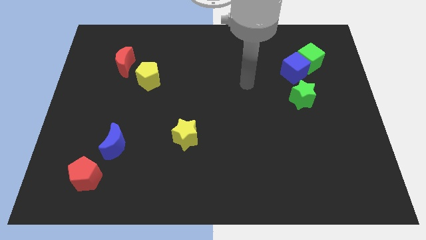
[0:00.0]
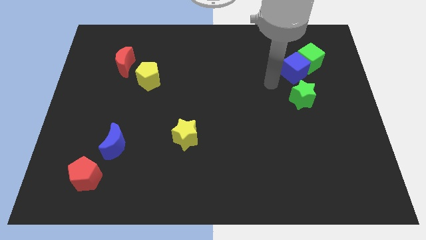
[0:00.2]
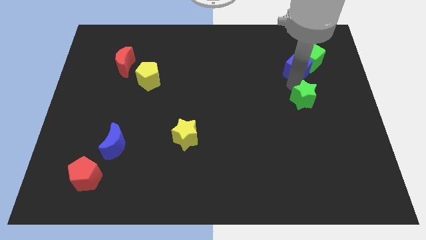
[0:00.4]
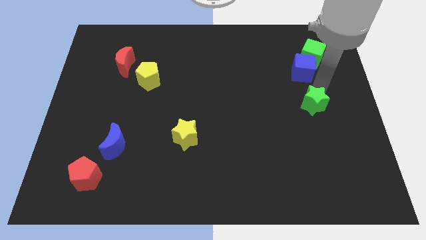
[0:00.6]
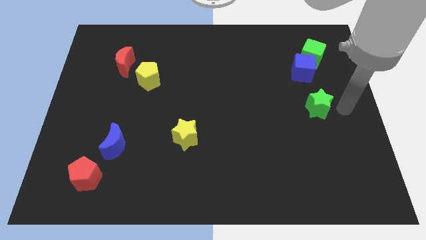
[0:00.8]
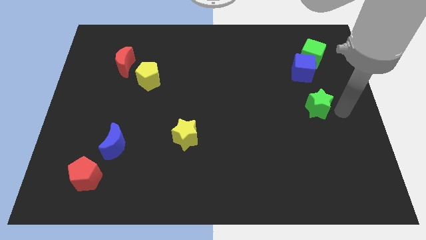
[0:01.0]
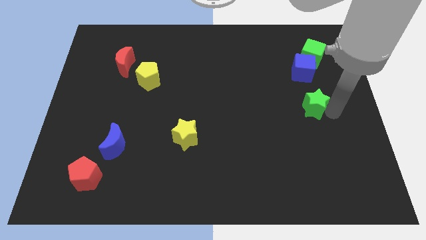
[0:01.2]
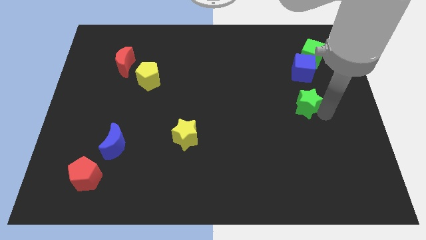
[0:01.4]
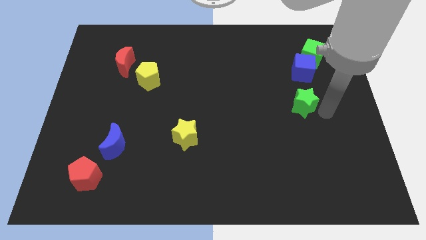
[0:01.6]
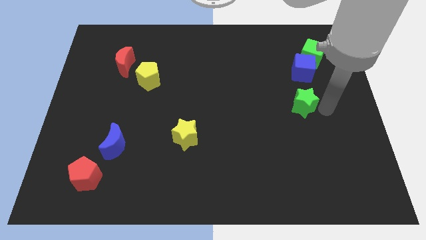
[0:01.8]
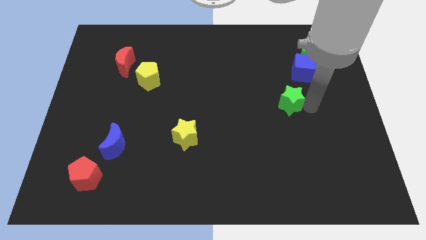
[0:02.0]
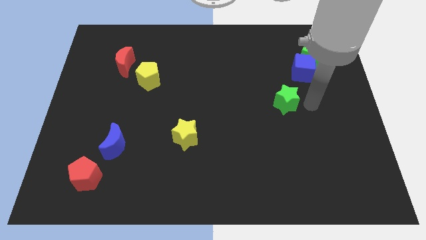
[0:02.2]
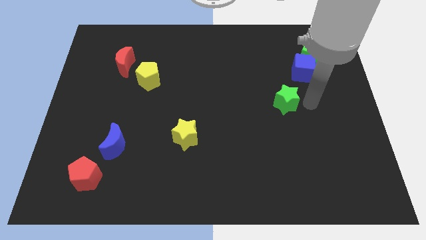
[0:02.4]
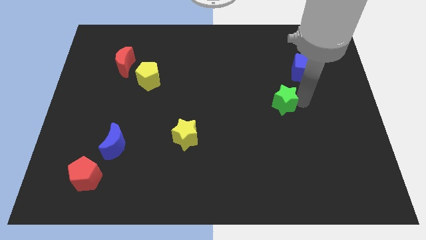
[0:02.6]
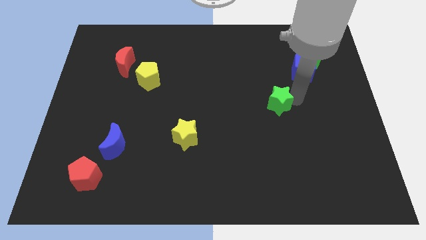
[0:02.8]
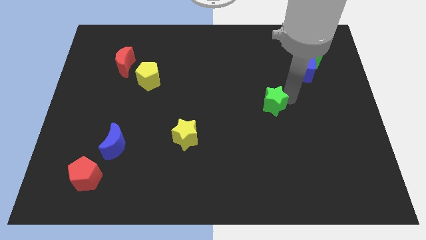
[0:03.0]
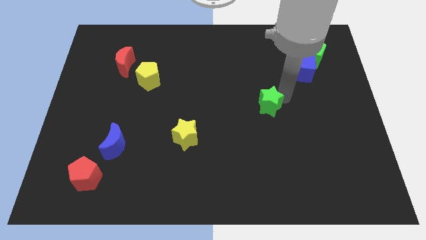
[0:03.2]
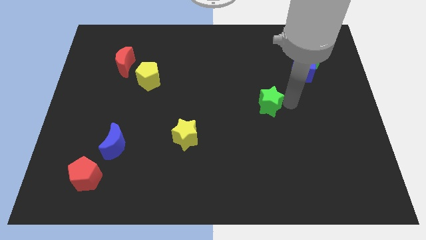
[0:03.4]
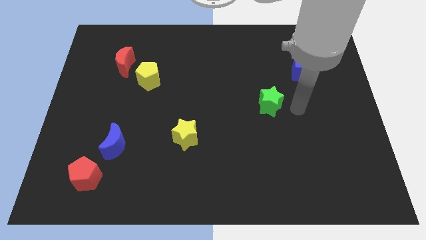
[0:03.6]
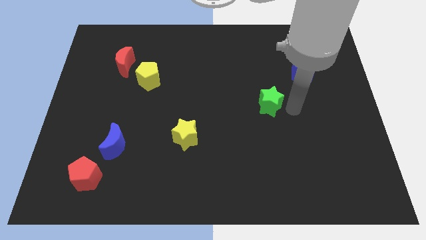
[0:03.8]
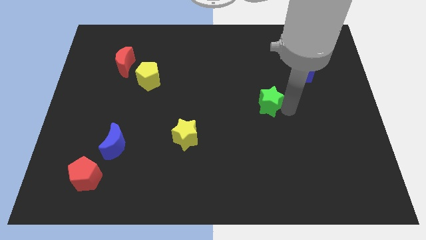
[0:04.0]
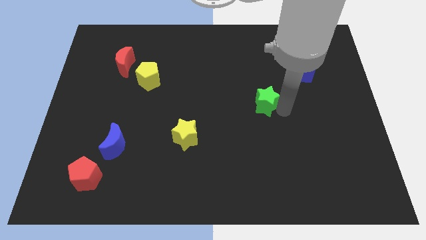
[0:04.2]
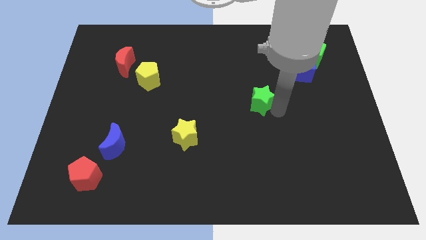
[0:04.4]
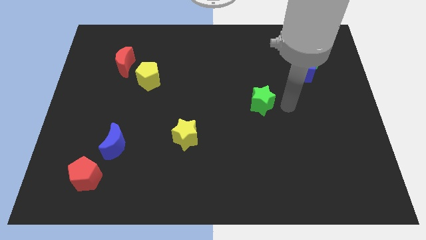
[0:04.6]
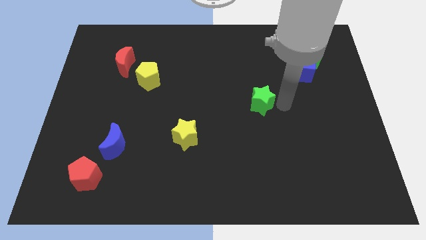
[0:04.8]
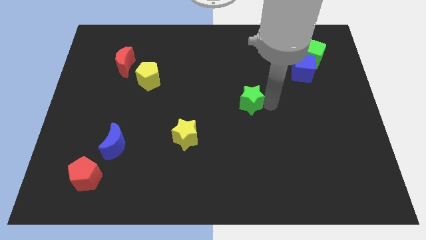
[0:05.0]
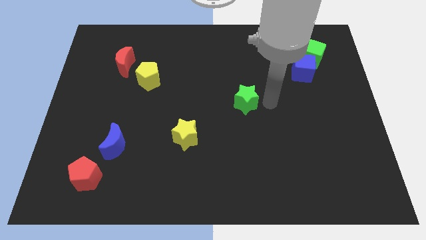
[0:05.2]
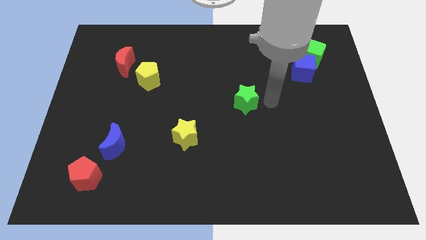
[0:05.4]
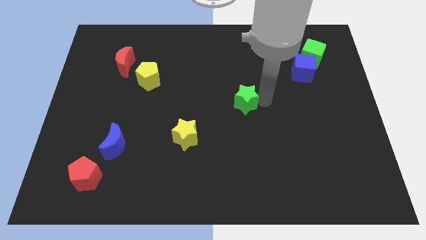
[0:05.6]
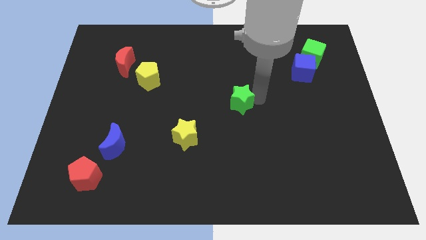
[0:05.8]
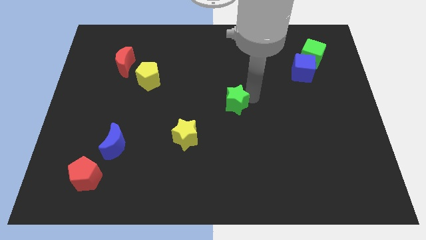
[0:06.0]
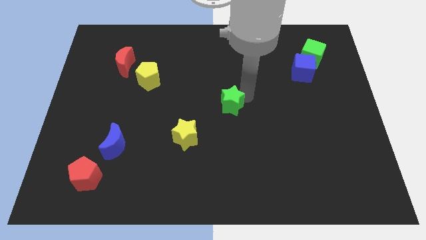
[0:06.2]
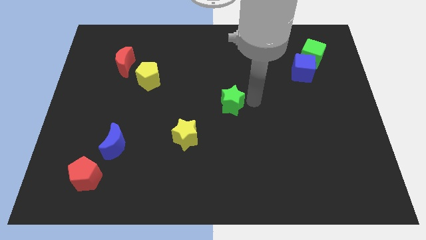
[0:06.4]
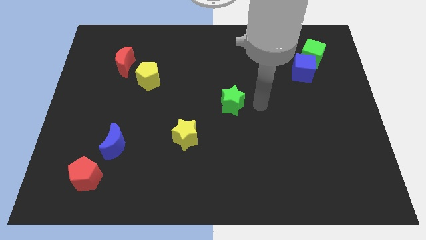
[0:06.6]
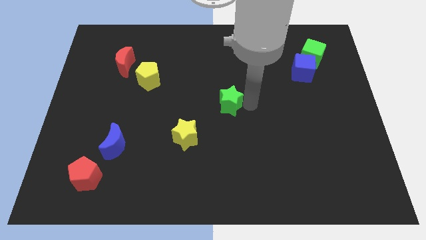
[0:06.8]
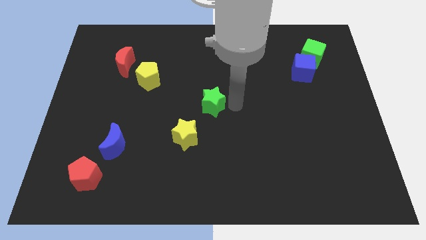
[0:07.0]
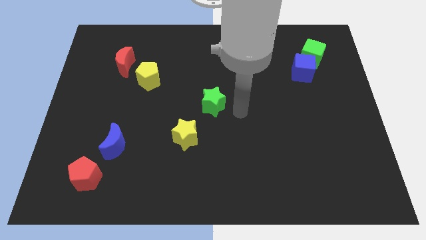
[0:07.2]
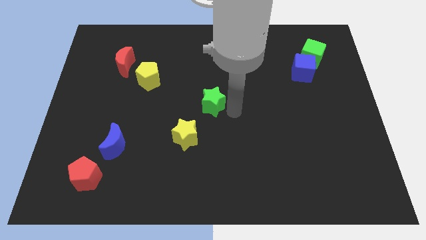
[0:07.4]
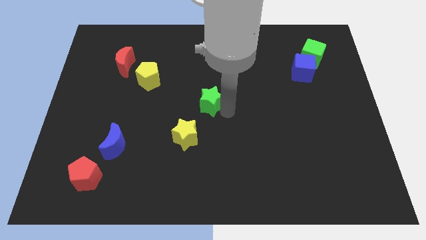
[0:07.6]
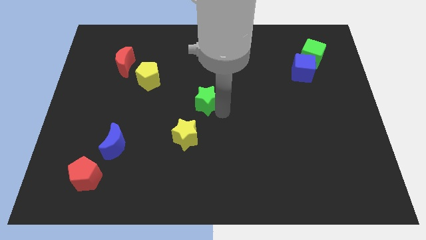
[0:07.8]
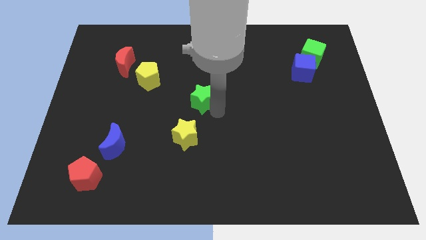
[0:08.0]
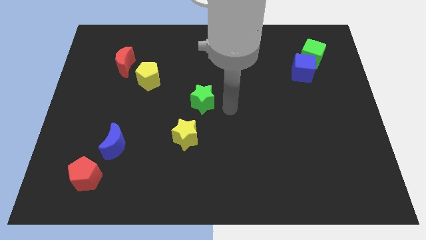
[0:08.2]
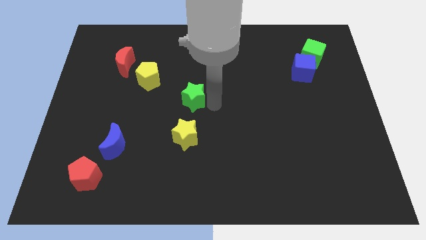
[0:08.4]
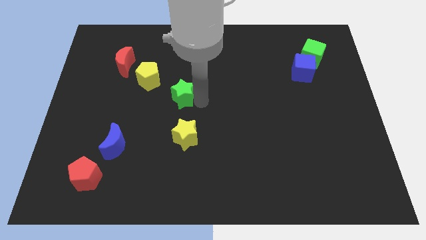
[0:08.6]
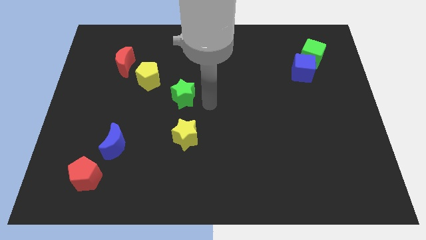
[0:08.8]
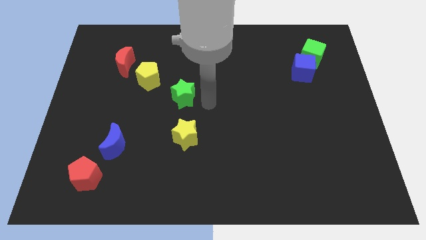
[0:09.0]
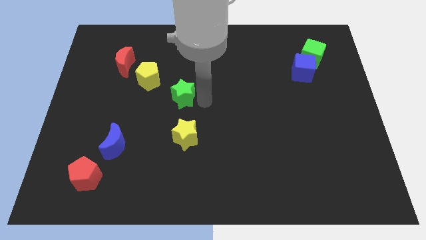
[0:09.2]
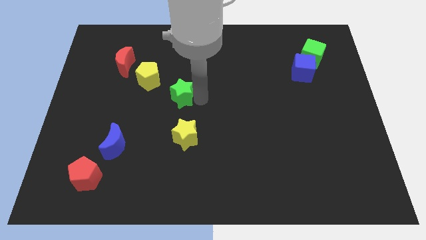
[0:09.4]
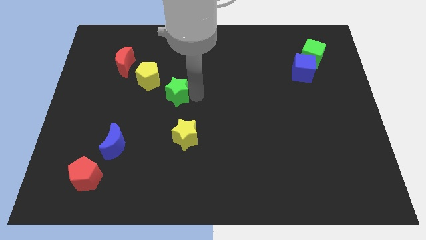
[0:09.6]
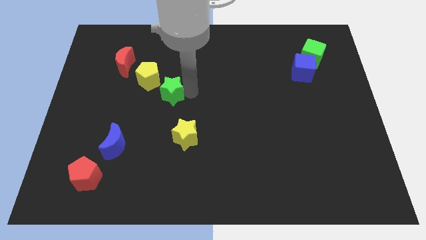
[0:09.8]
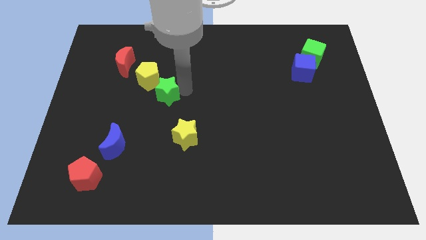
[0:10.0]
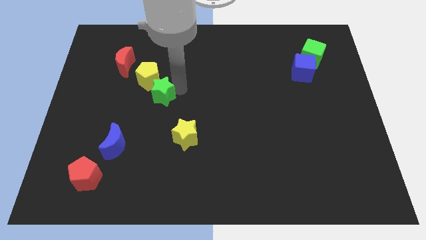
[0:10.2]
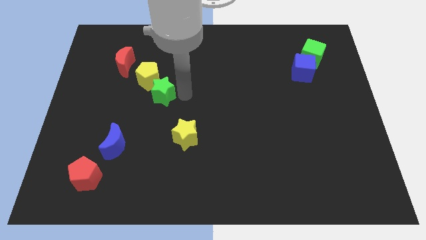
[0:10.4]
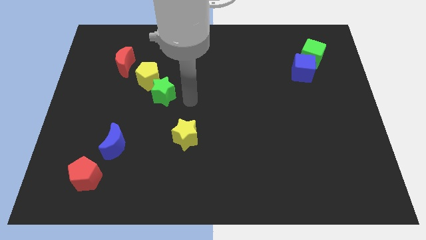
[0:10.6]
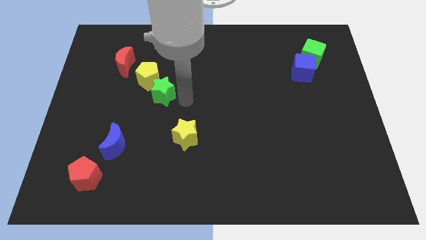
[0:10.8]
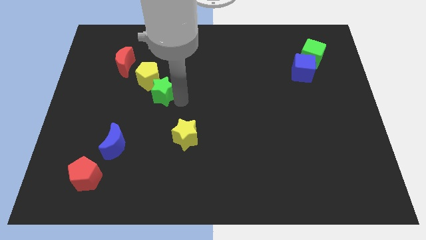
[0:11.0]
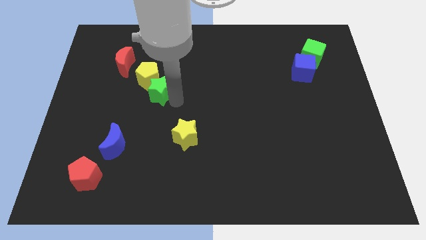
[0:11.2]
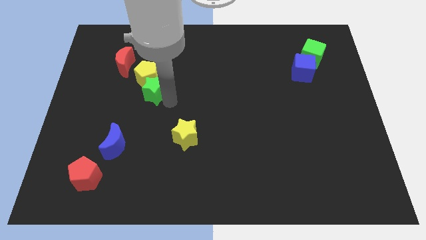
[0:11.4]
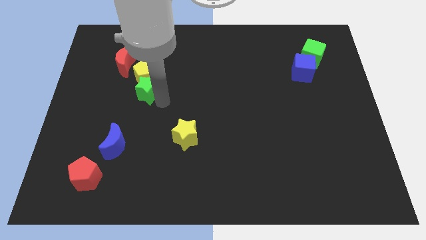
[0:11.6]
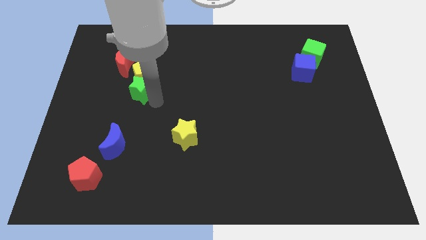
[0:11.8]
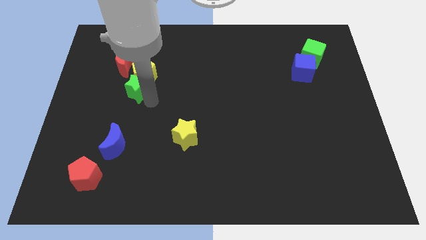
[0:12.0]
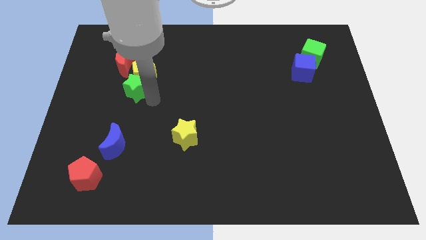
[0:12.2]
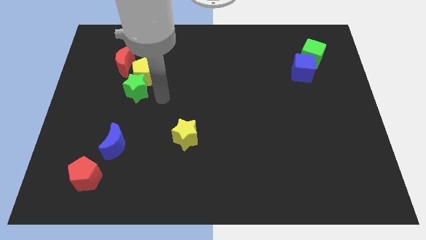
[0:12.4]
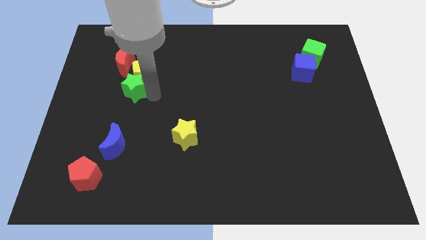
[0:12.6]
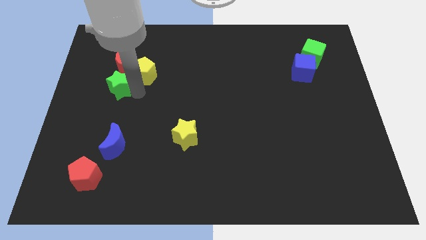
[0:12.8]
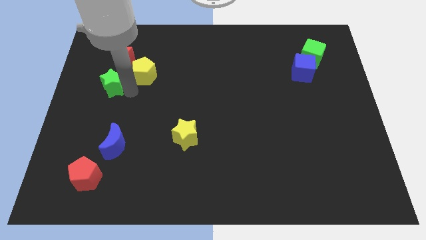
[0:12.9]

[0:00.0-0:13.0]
slide the green star diagonally down and to the left of the red moon

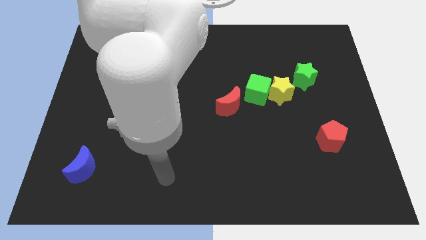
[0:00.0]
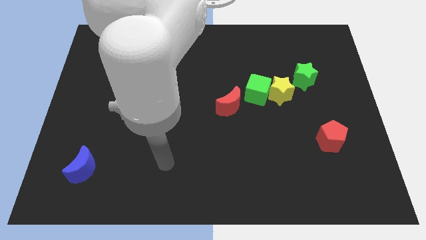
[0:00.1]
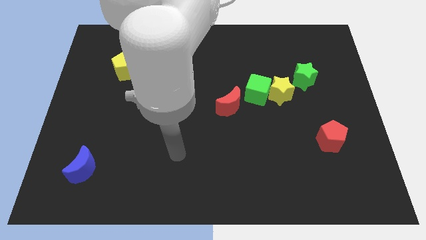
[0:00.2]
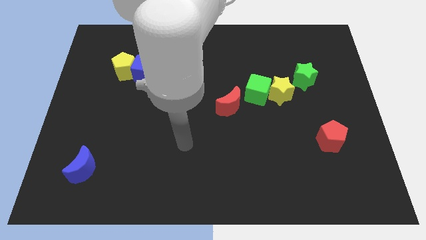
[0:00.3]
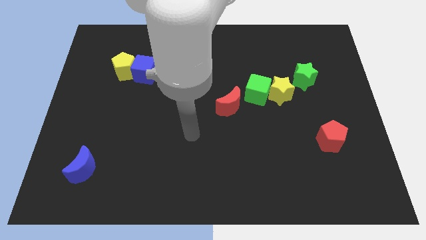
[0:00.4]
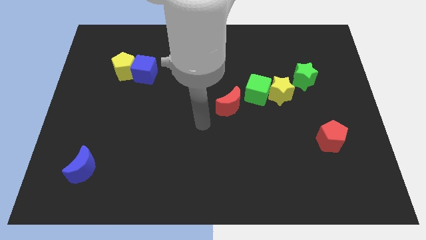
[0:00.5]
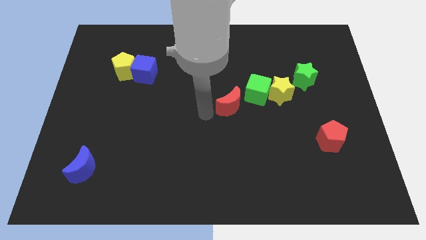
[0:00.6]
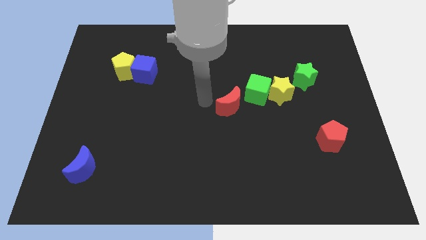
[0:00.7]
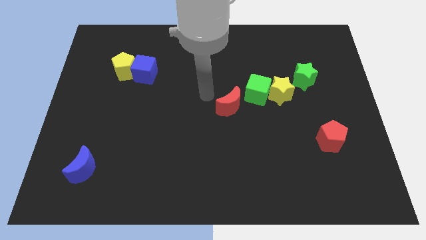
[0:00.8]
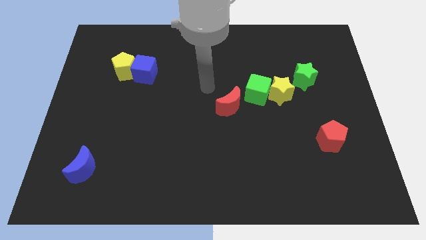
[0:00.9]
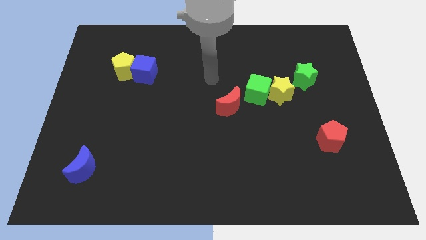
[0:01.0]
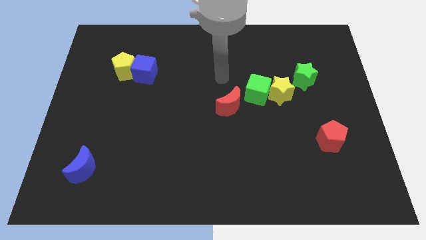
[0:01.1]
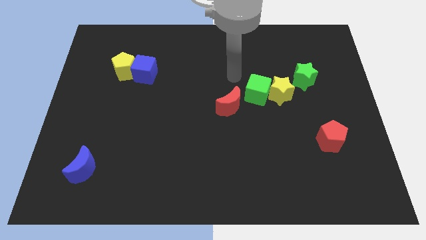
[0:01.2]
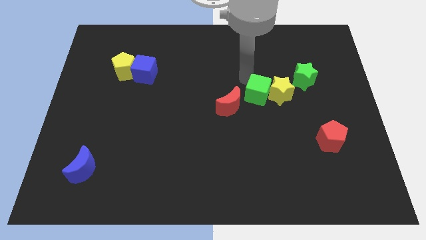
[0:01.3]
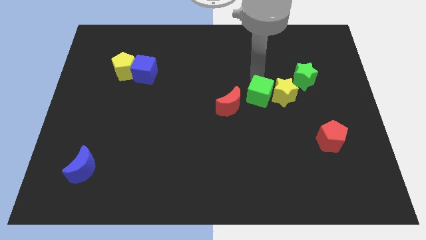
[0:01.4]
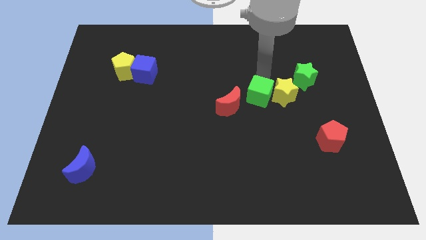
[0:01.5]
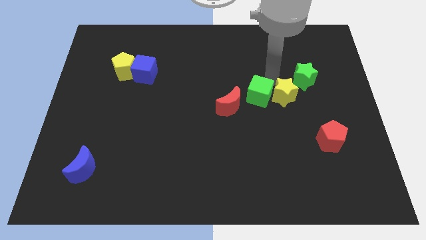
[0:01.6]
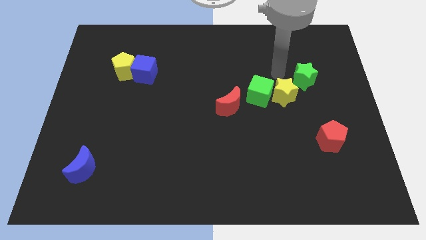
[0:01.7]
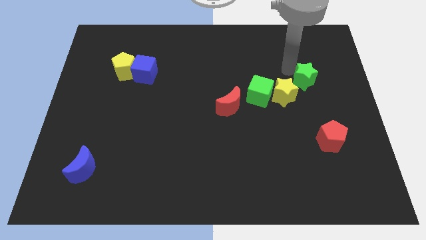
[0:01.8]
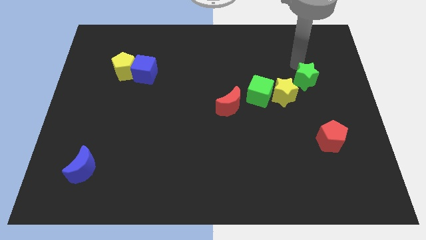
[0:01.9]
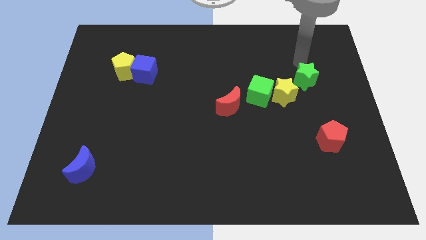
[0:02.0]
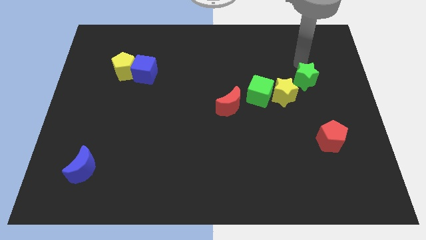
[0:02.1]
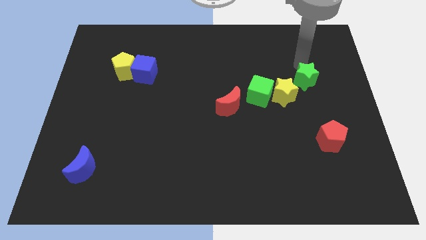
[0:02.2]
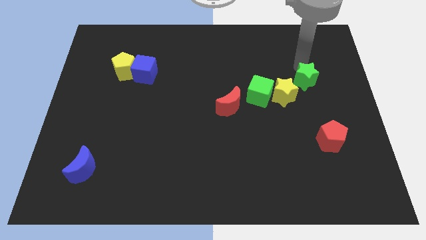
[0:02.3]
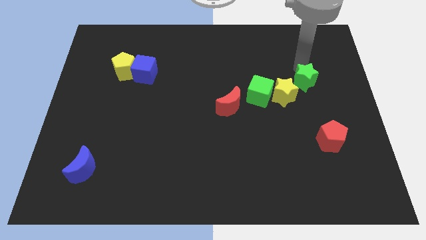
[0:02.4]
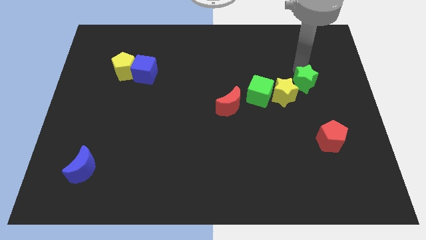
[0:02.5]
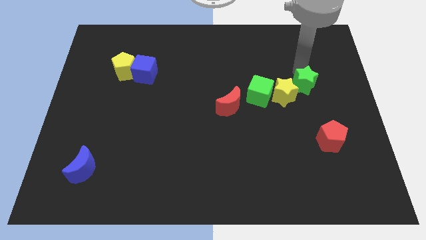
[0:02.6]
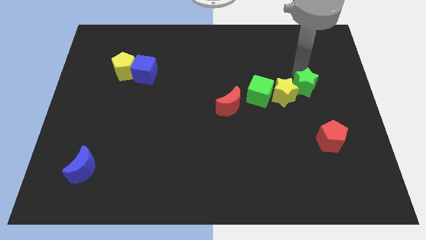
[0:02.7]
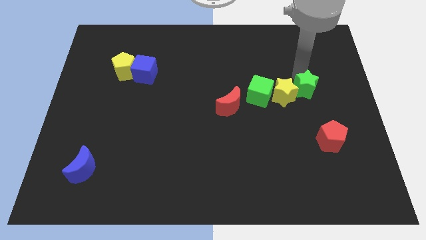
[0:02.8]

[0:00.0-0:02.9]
slide the green star above the red pentagon
